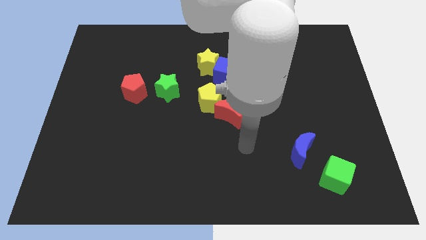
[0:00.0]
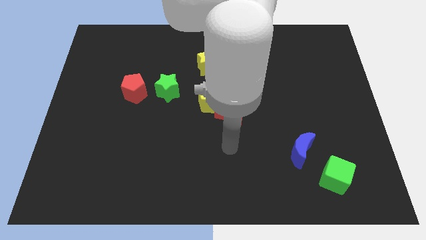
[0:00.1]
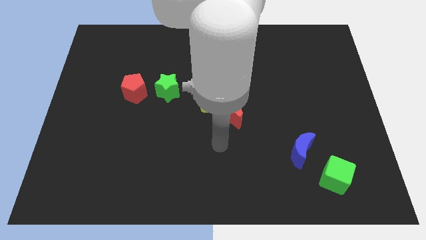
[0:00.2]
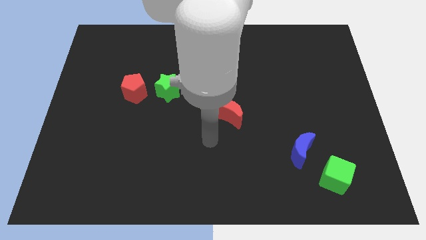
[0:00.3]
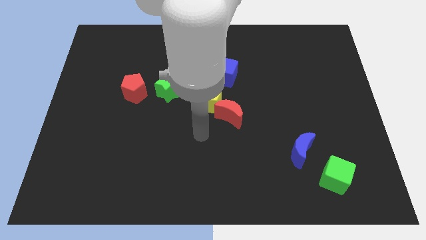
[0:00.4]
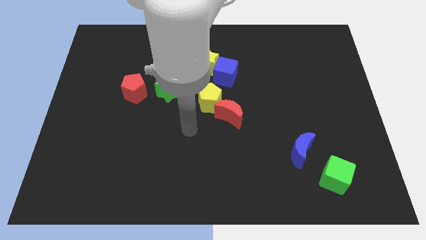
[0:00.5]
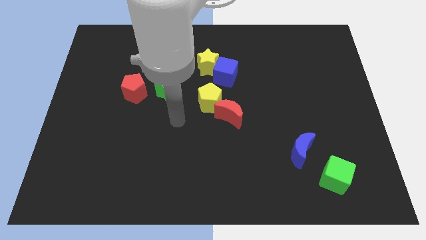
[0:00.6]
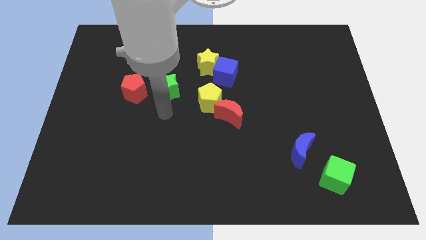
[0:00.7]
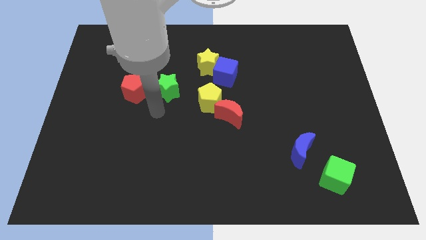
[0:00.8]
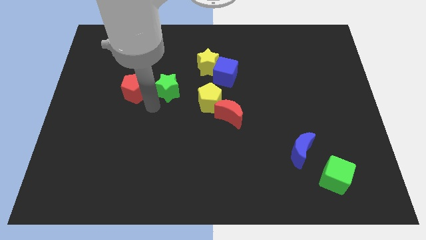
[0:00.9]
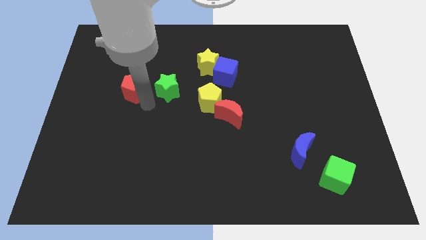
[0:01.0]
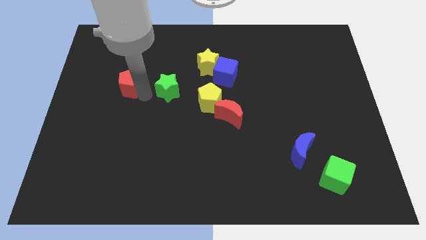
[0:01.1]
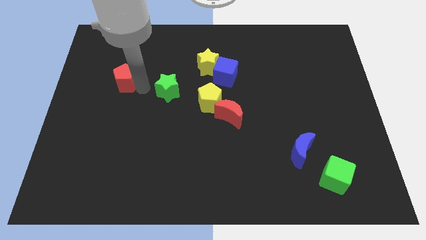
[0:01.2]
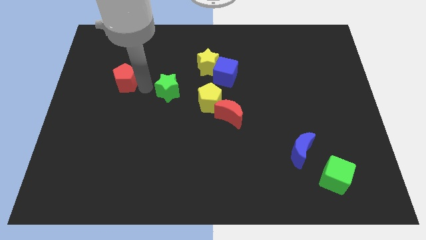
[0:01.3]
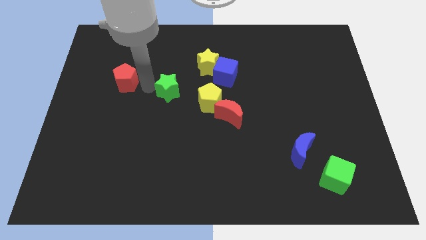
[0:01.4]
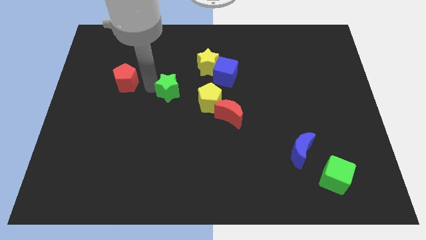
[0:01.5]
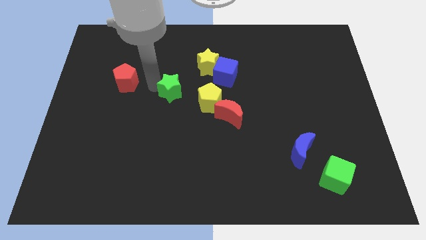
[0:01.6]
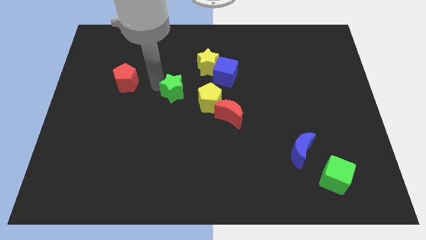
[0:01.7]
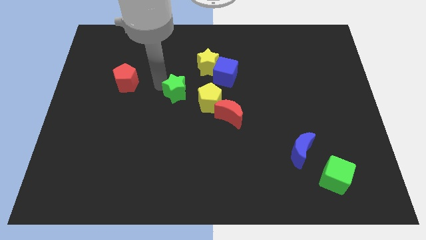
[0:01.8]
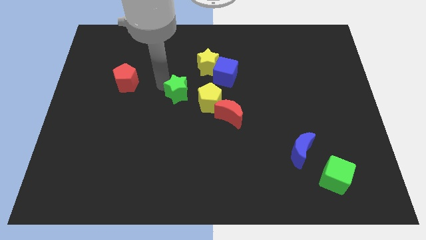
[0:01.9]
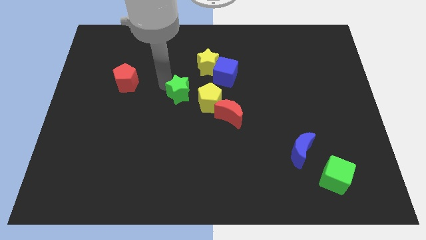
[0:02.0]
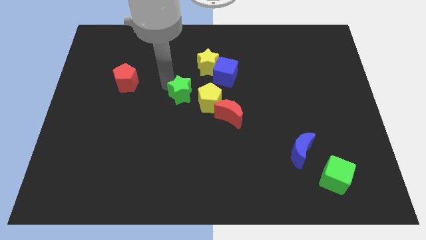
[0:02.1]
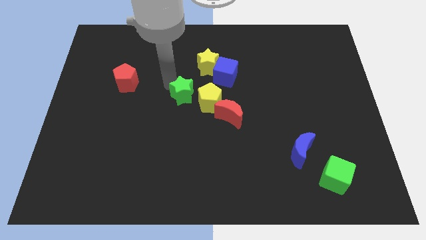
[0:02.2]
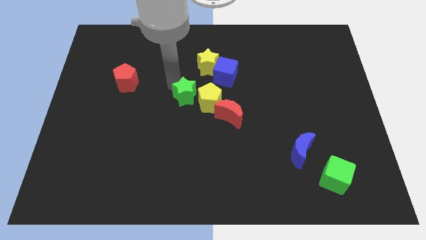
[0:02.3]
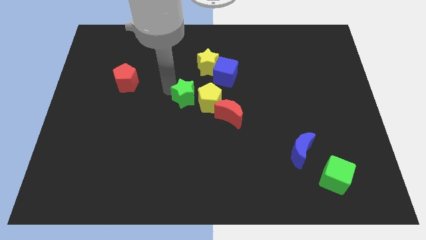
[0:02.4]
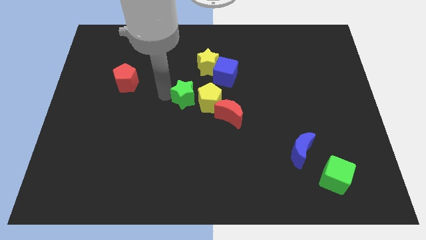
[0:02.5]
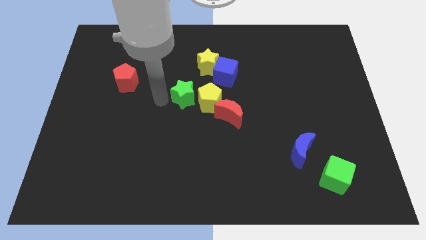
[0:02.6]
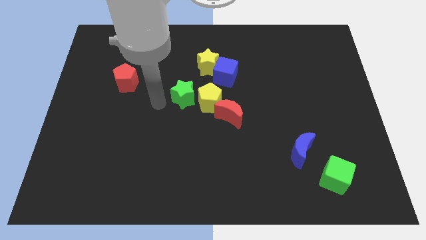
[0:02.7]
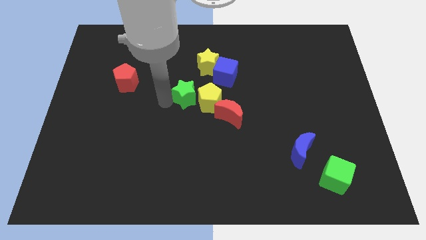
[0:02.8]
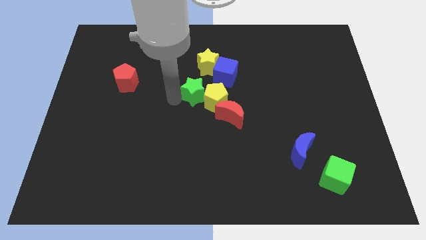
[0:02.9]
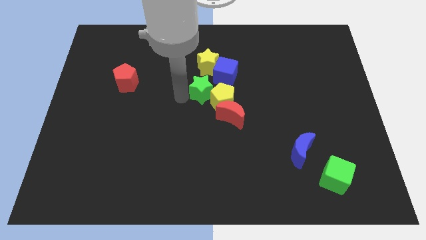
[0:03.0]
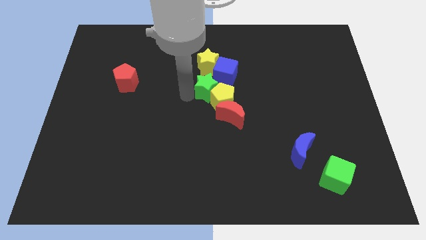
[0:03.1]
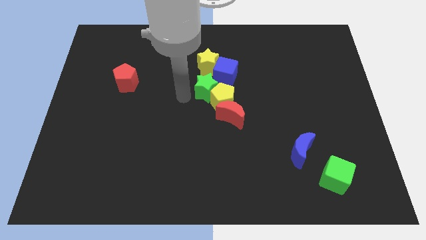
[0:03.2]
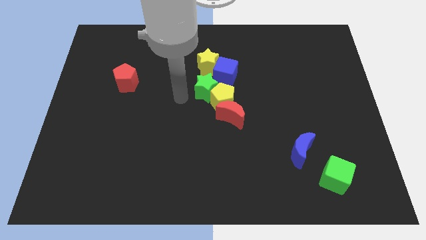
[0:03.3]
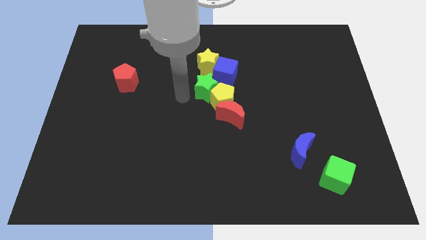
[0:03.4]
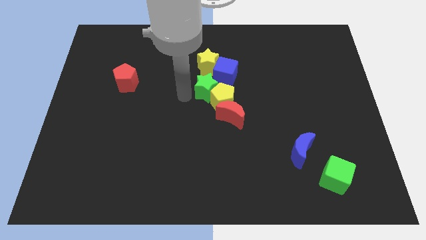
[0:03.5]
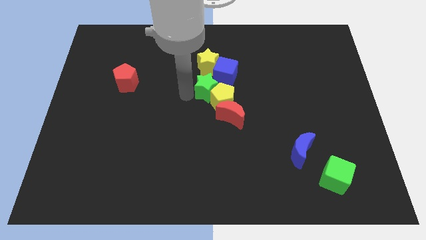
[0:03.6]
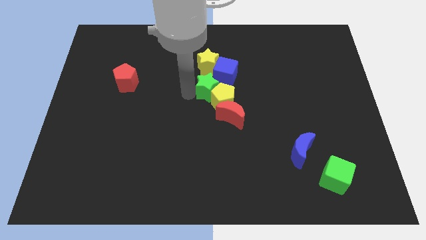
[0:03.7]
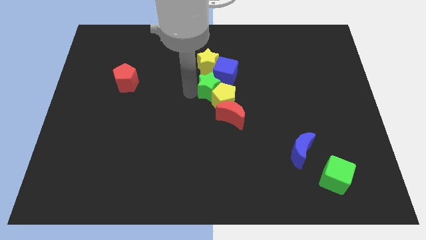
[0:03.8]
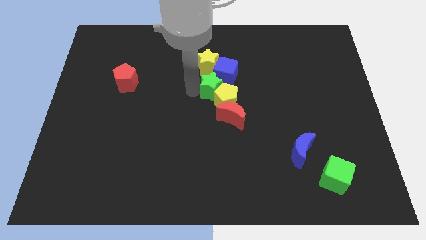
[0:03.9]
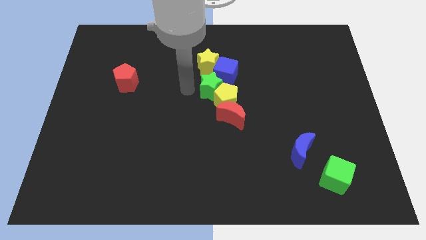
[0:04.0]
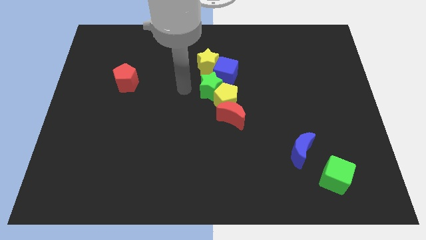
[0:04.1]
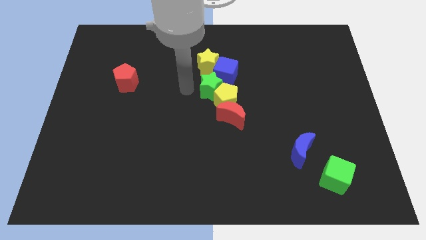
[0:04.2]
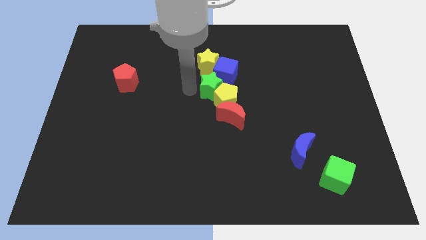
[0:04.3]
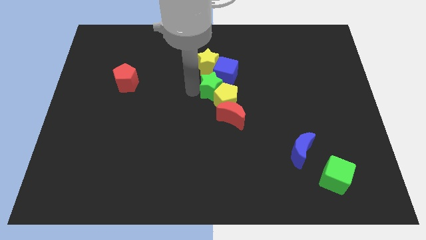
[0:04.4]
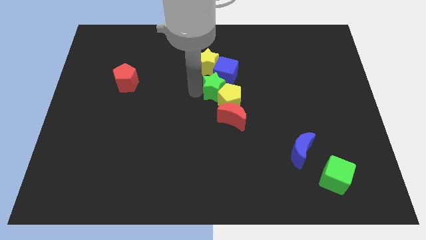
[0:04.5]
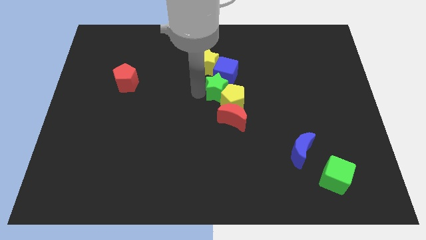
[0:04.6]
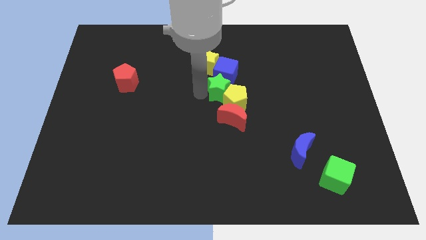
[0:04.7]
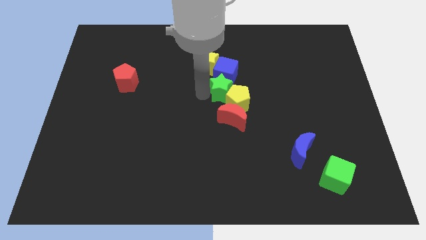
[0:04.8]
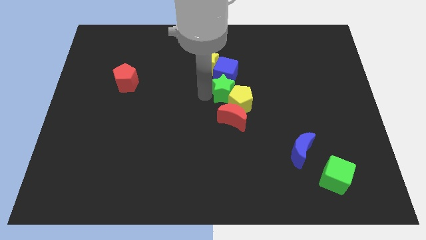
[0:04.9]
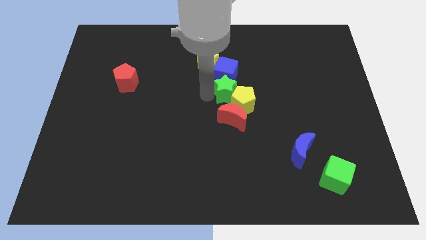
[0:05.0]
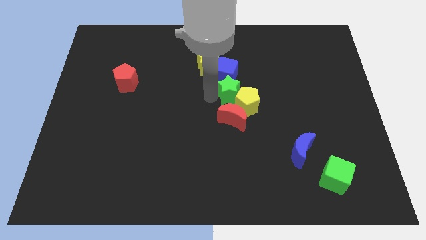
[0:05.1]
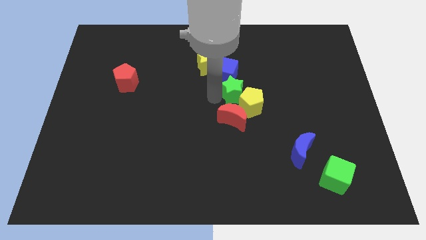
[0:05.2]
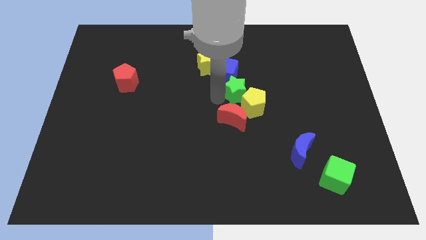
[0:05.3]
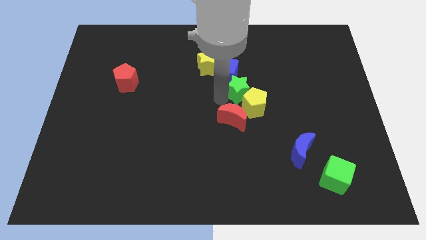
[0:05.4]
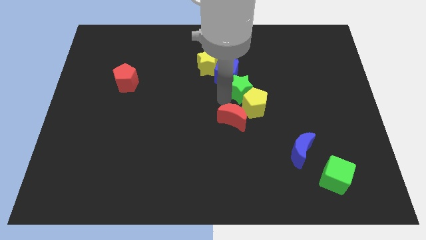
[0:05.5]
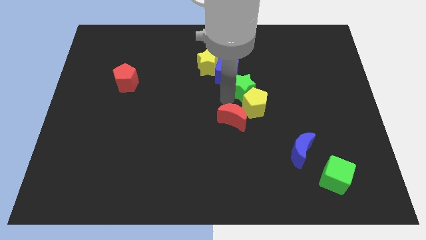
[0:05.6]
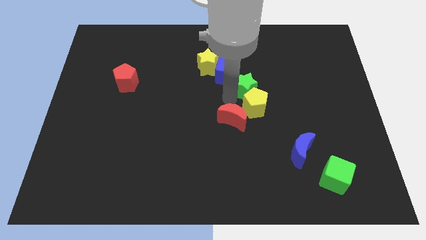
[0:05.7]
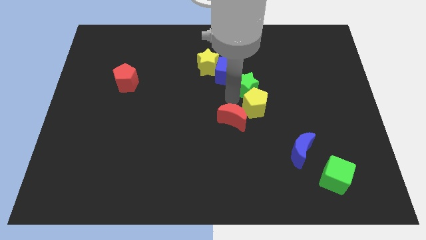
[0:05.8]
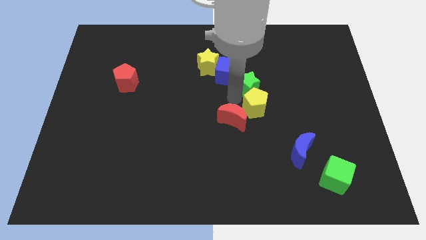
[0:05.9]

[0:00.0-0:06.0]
move the green star to the right of the blue cube

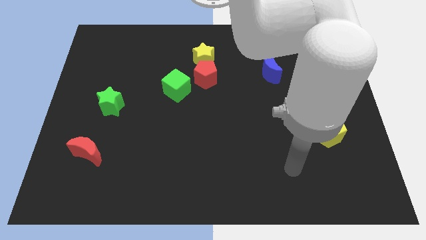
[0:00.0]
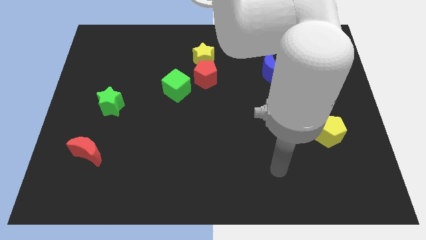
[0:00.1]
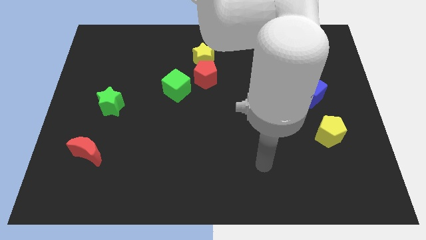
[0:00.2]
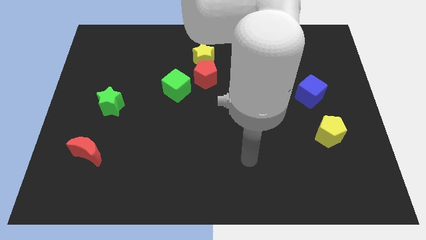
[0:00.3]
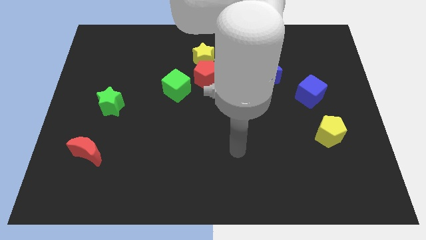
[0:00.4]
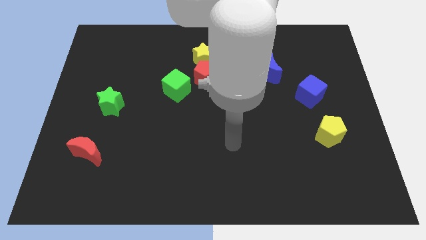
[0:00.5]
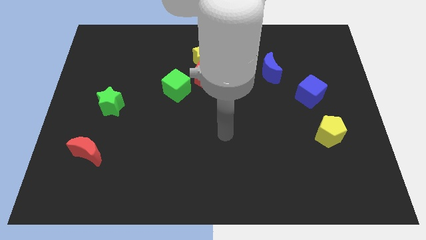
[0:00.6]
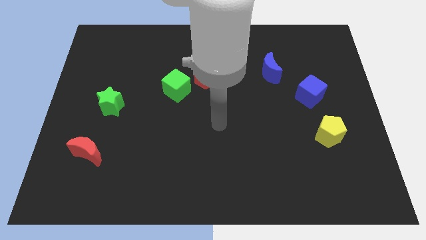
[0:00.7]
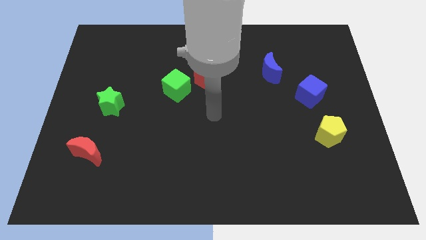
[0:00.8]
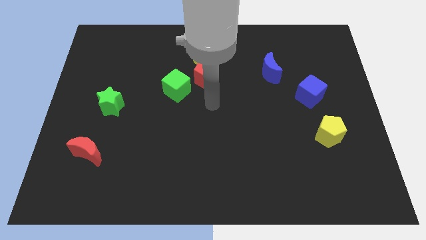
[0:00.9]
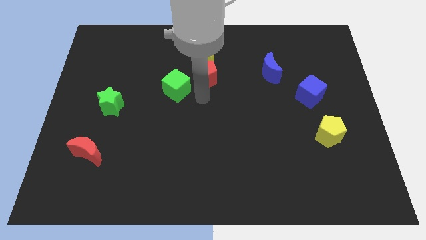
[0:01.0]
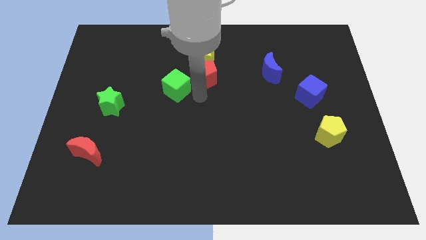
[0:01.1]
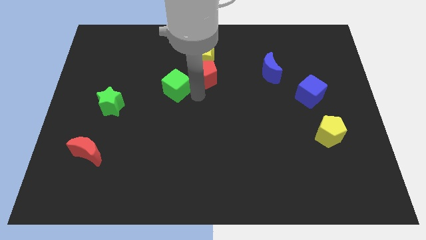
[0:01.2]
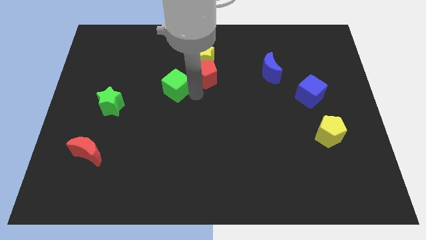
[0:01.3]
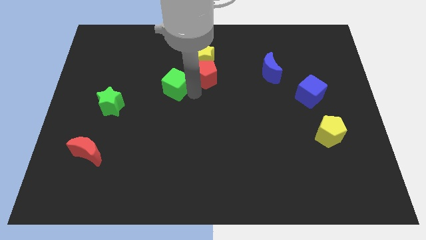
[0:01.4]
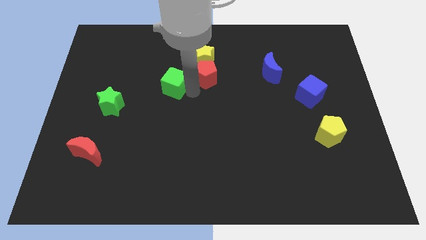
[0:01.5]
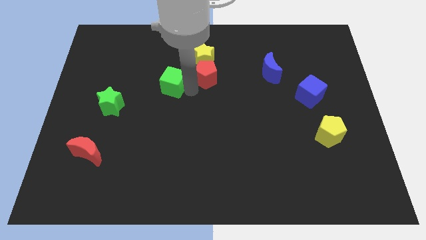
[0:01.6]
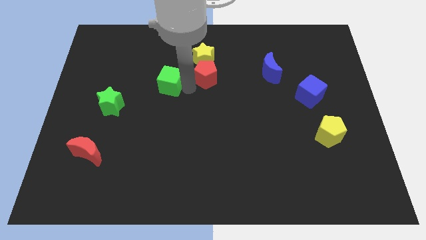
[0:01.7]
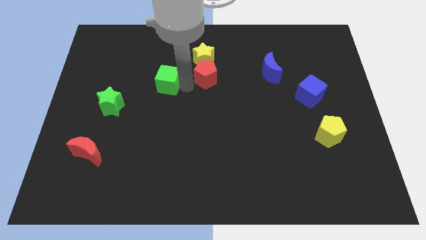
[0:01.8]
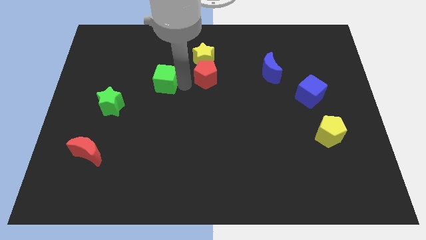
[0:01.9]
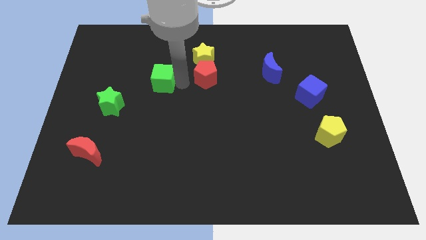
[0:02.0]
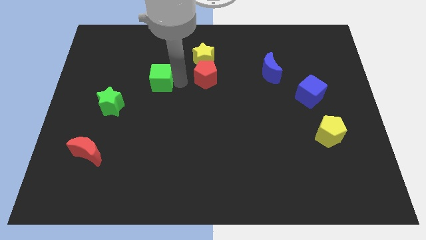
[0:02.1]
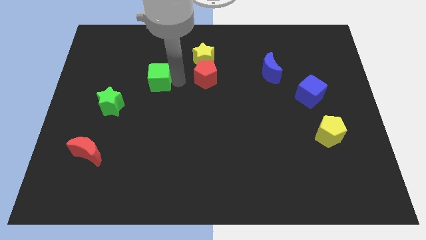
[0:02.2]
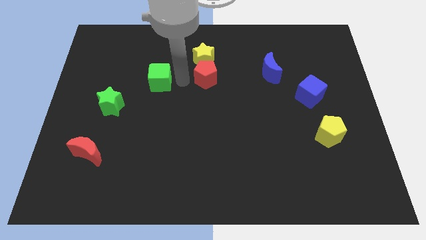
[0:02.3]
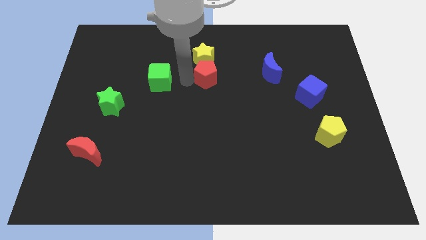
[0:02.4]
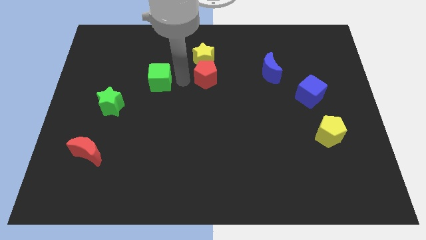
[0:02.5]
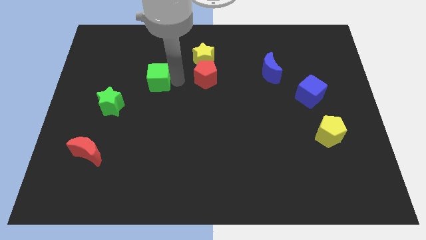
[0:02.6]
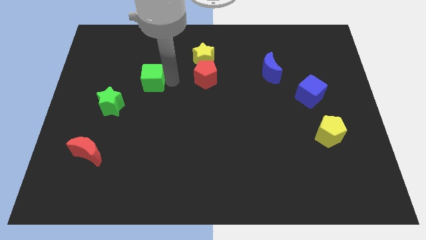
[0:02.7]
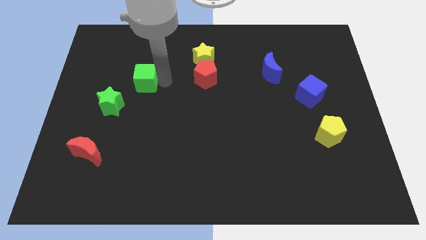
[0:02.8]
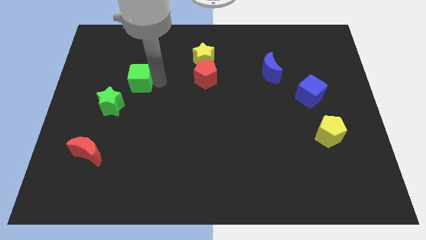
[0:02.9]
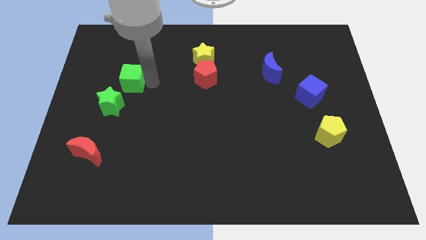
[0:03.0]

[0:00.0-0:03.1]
put the green cube to the top side of the green star
